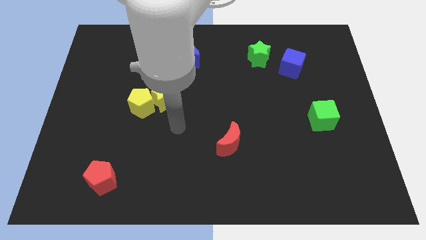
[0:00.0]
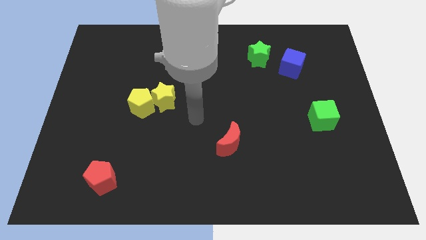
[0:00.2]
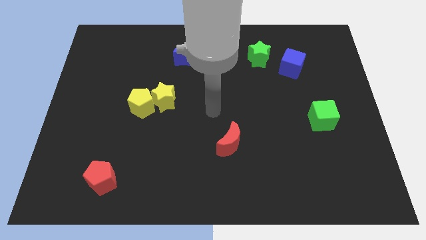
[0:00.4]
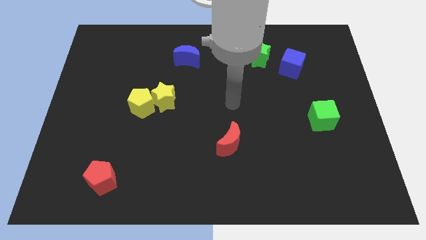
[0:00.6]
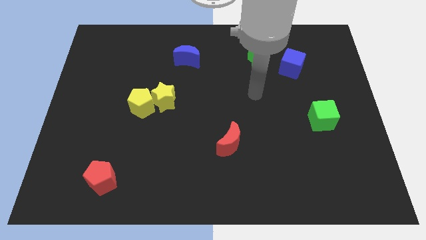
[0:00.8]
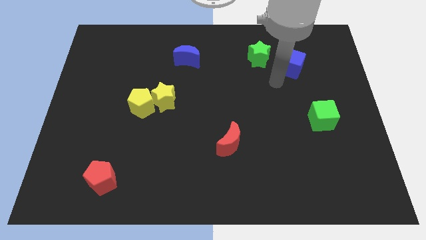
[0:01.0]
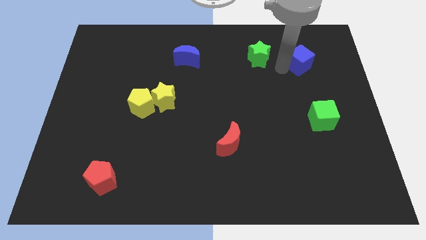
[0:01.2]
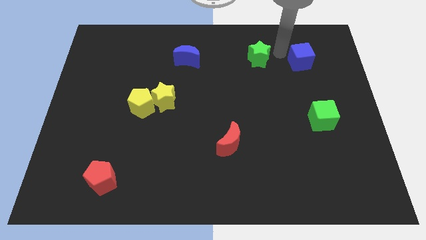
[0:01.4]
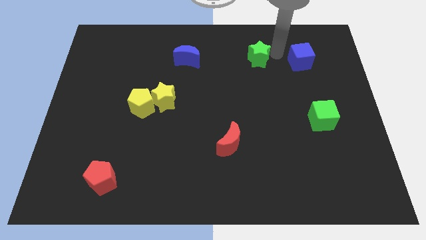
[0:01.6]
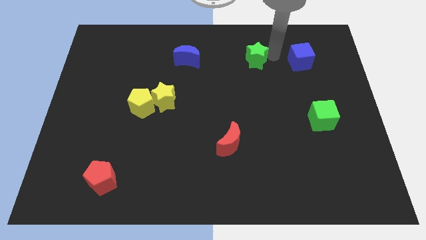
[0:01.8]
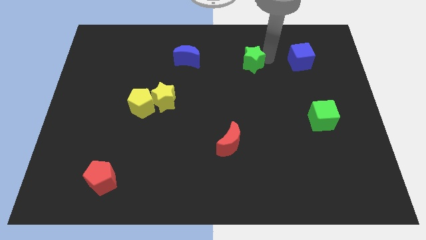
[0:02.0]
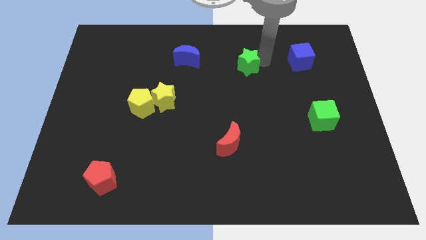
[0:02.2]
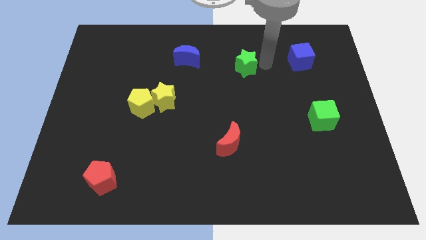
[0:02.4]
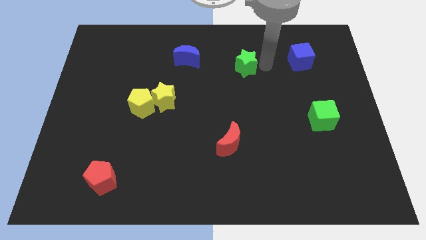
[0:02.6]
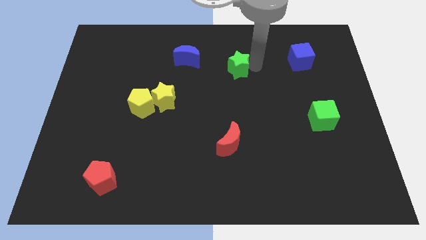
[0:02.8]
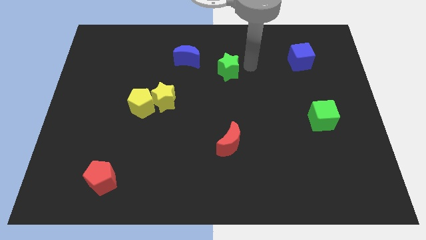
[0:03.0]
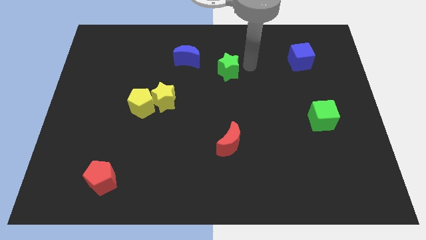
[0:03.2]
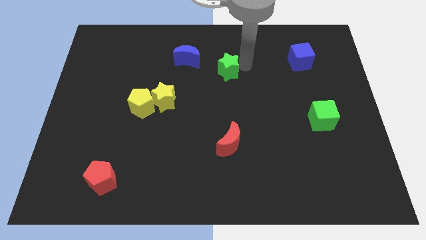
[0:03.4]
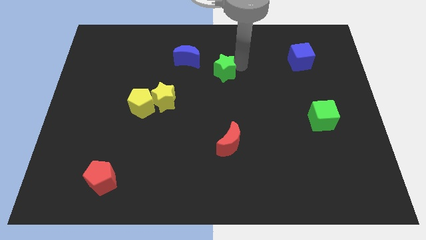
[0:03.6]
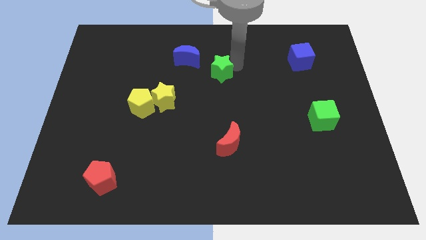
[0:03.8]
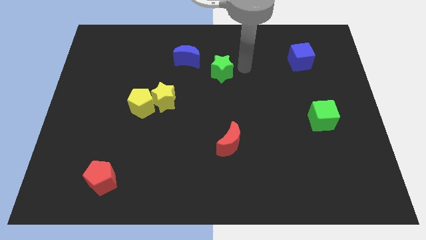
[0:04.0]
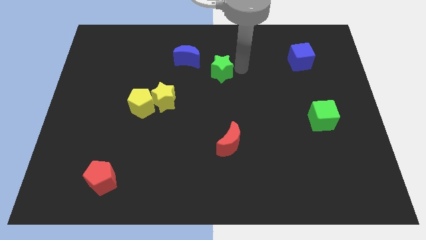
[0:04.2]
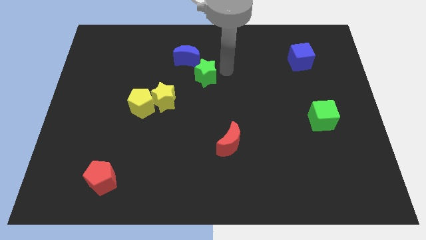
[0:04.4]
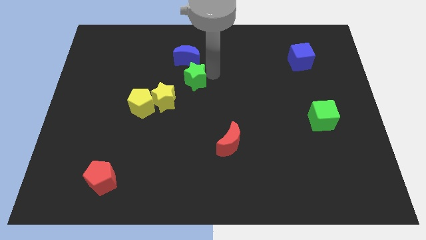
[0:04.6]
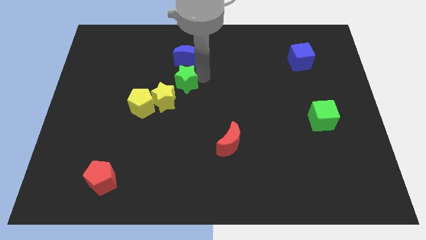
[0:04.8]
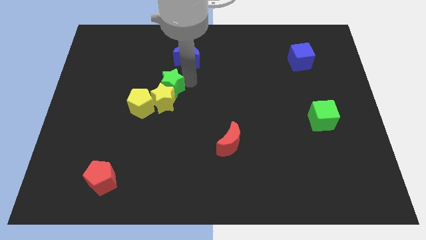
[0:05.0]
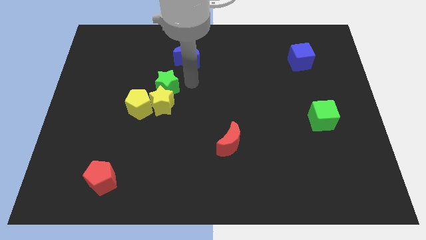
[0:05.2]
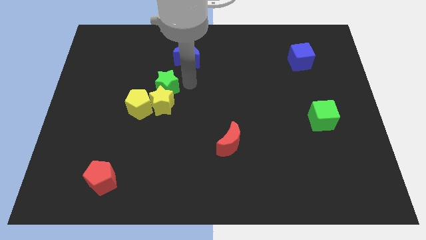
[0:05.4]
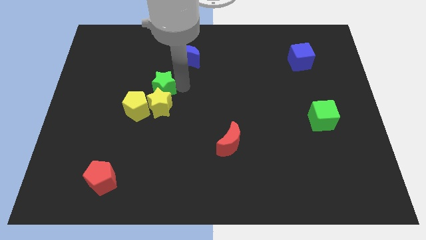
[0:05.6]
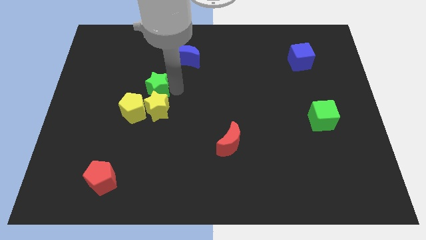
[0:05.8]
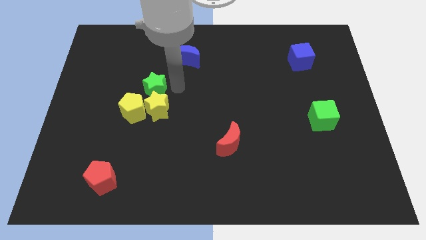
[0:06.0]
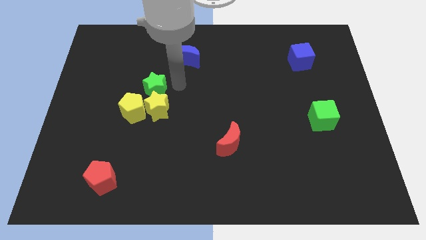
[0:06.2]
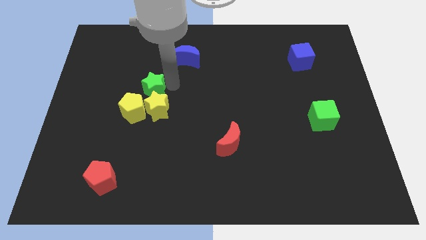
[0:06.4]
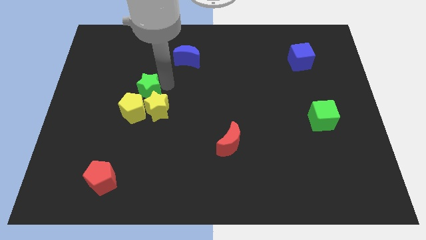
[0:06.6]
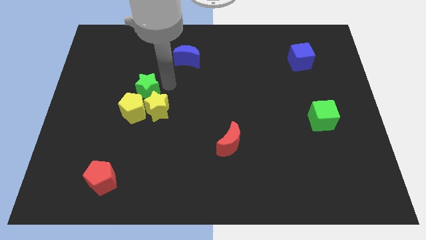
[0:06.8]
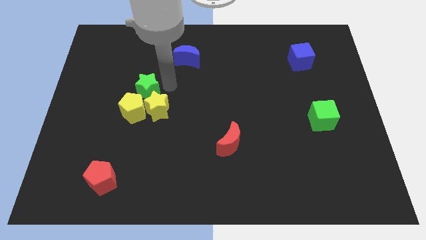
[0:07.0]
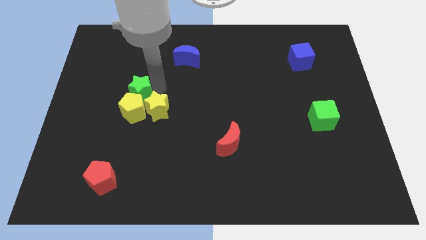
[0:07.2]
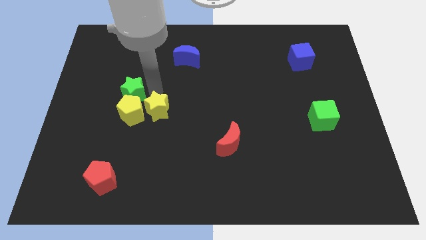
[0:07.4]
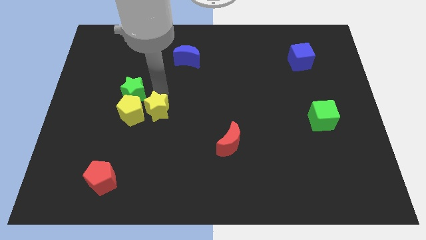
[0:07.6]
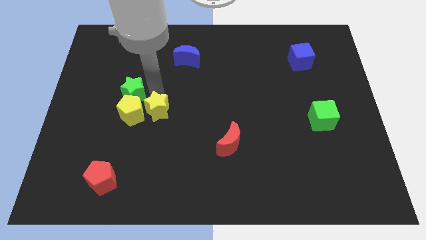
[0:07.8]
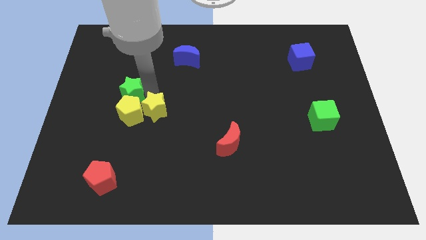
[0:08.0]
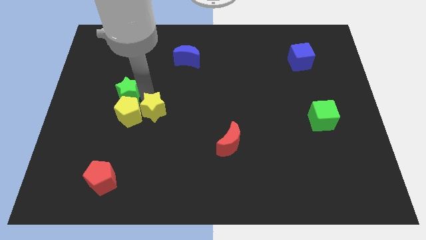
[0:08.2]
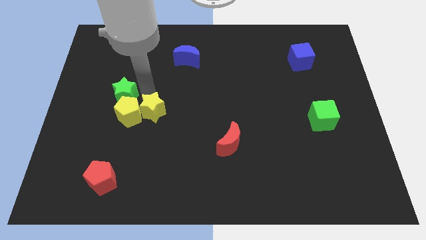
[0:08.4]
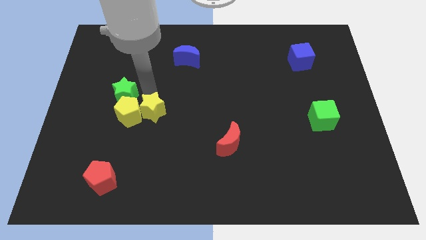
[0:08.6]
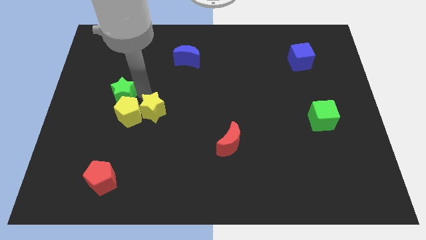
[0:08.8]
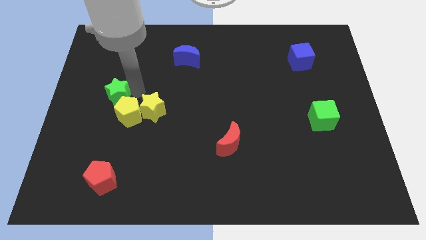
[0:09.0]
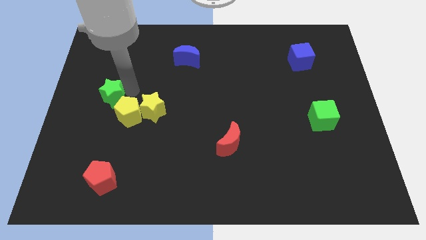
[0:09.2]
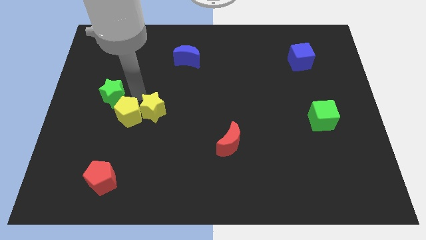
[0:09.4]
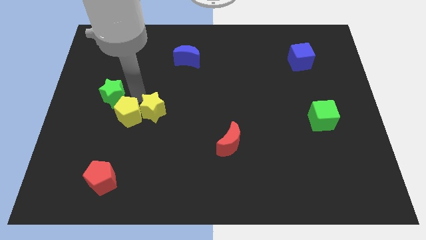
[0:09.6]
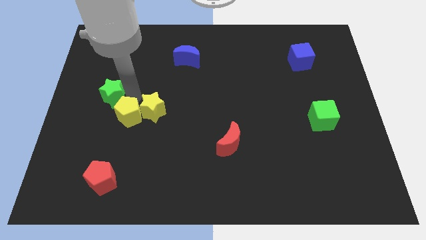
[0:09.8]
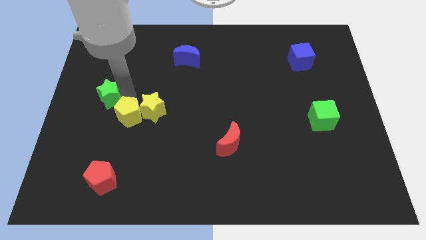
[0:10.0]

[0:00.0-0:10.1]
slide the green star to the center left

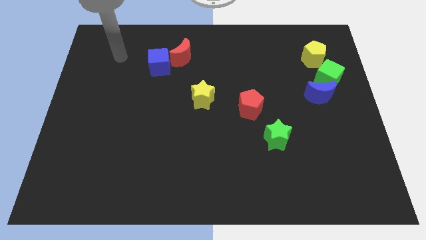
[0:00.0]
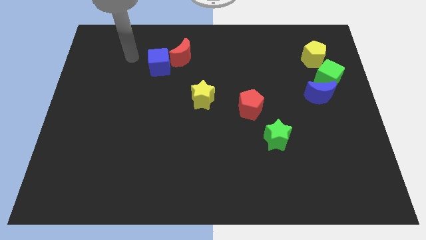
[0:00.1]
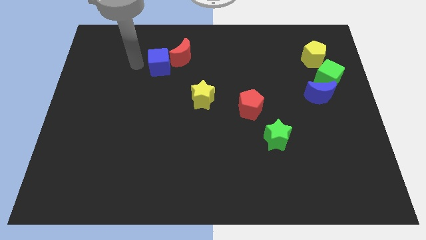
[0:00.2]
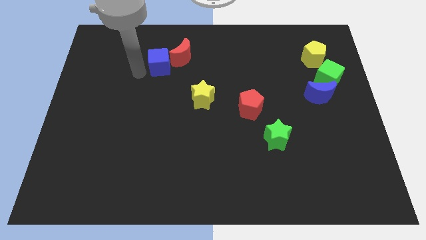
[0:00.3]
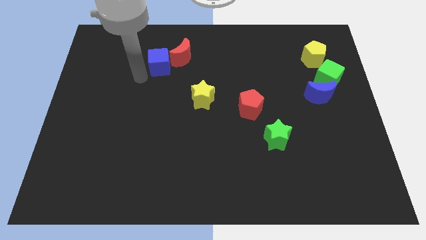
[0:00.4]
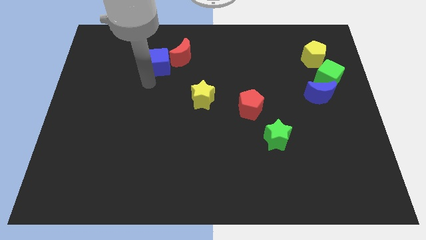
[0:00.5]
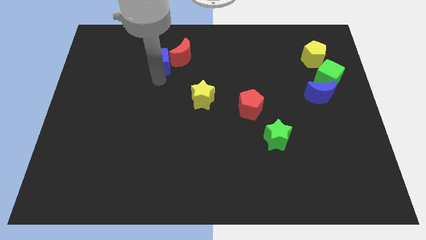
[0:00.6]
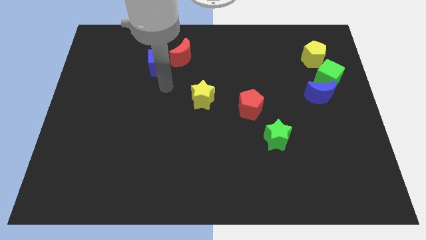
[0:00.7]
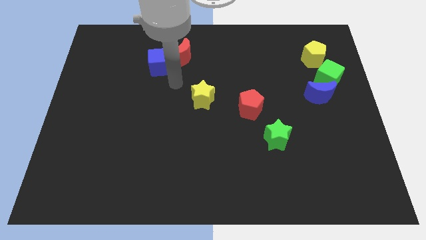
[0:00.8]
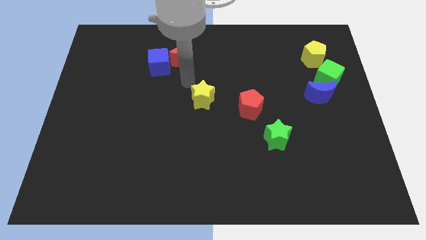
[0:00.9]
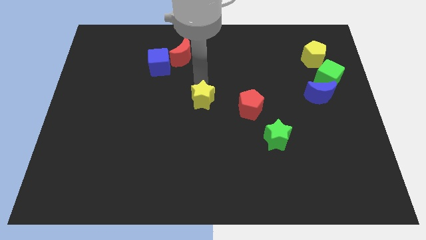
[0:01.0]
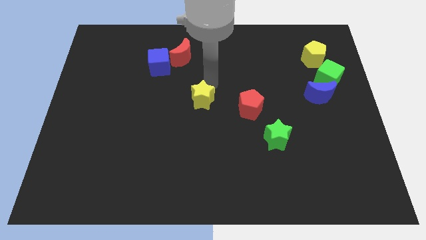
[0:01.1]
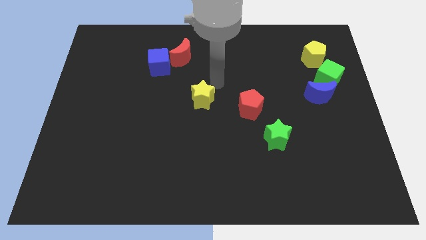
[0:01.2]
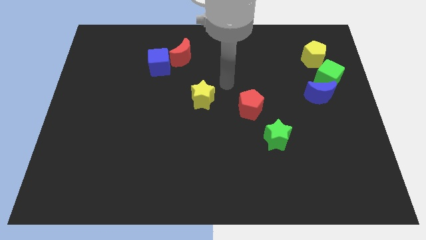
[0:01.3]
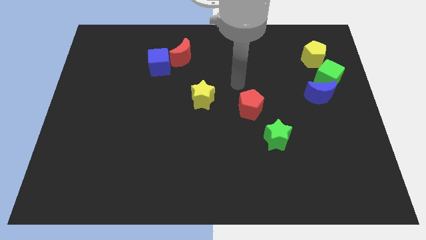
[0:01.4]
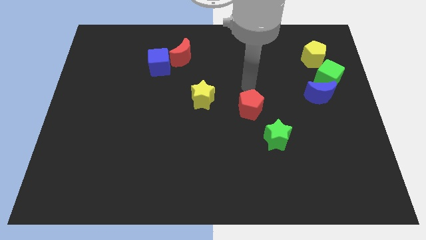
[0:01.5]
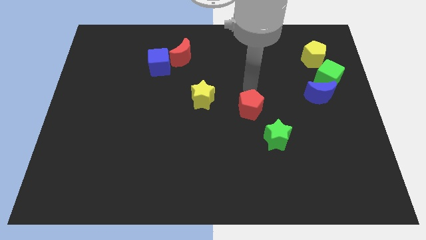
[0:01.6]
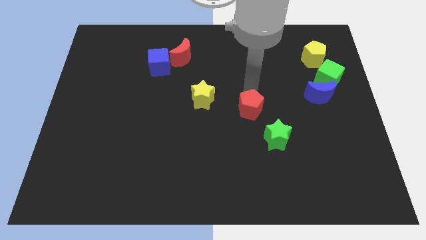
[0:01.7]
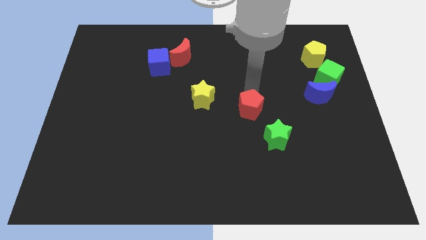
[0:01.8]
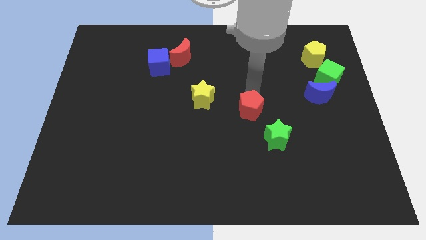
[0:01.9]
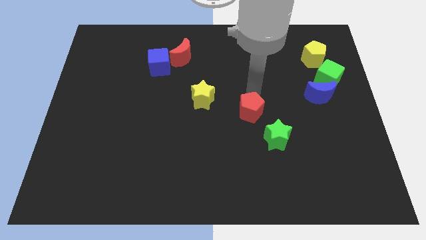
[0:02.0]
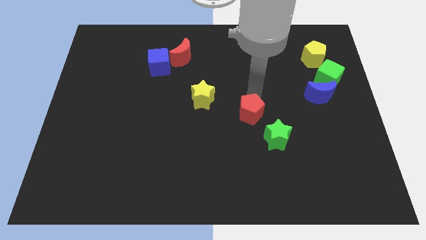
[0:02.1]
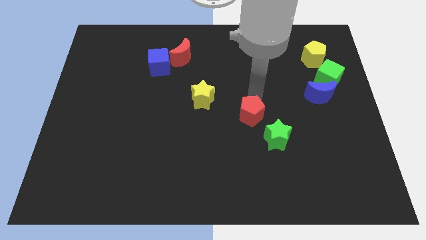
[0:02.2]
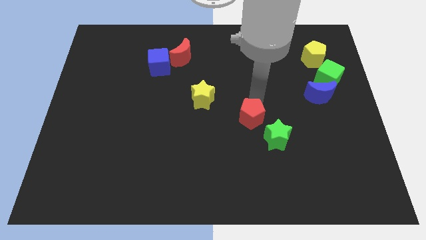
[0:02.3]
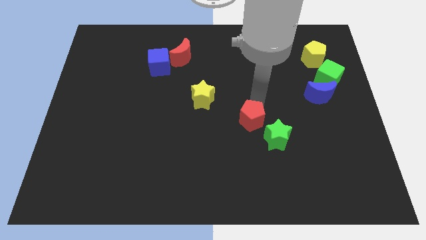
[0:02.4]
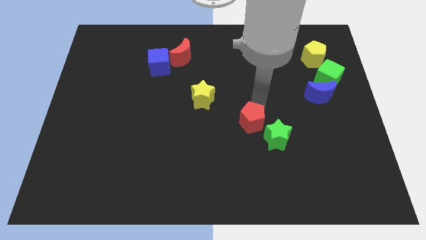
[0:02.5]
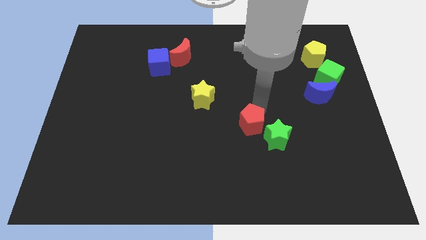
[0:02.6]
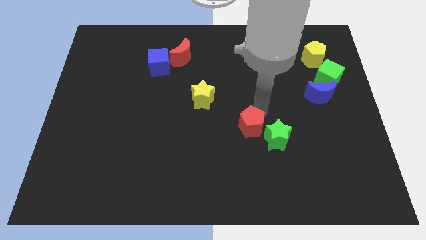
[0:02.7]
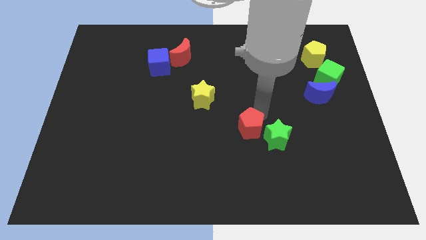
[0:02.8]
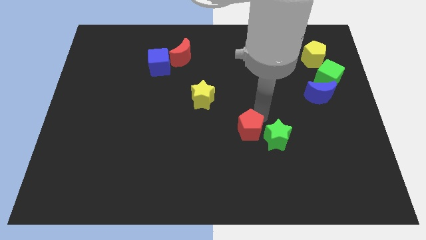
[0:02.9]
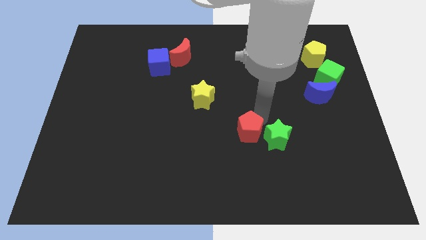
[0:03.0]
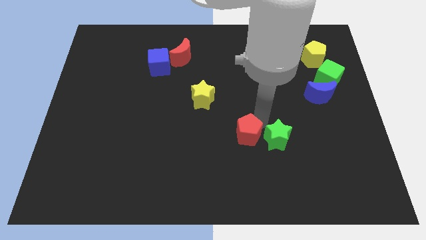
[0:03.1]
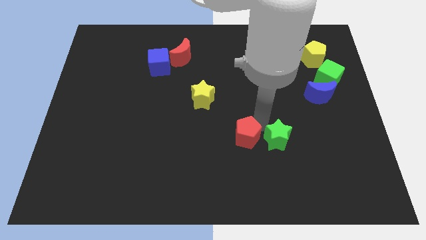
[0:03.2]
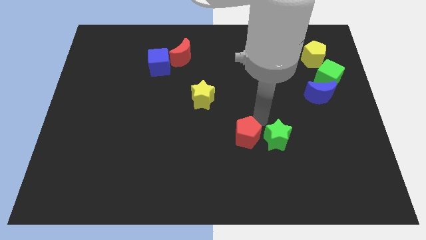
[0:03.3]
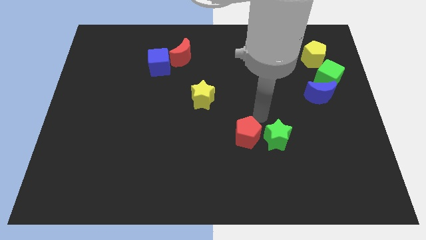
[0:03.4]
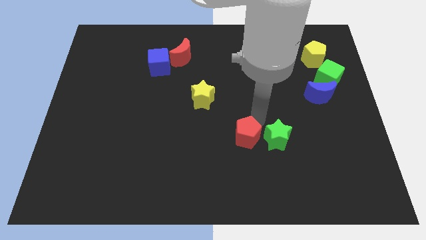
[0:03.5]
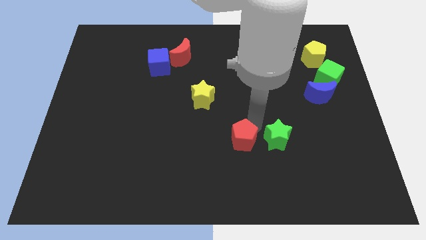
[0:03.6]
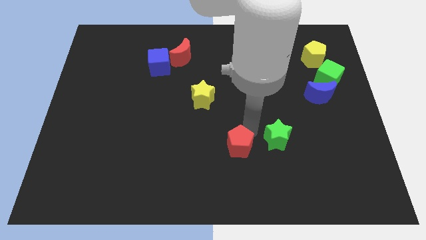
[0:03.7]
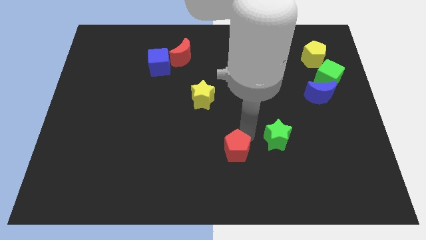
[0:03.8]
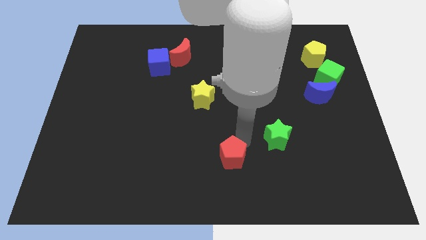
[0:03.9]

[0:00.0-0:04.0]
move the red pentagon to the bottom side
